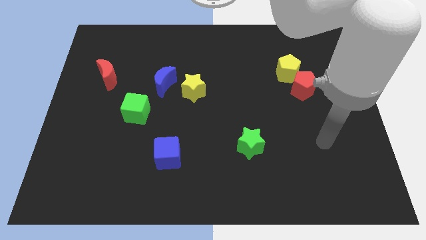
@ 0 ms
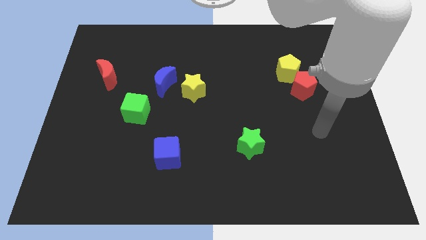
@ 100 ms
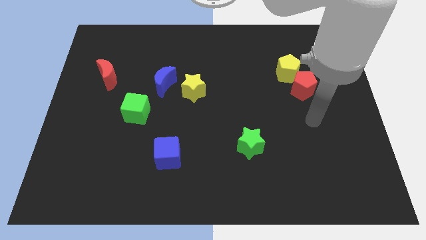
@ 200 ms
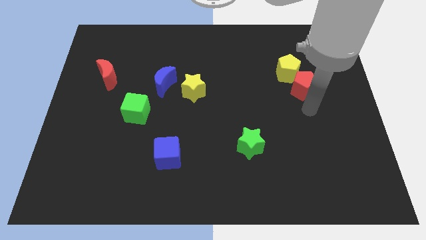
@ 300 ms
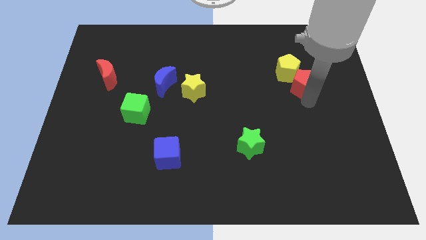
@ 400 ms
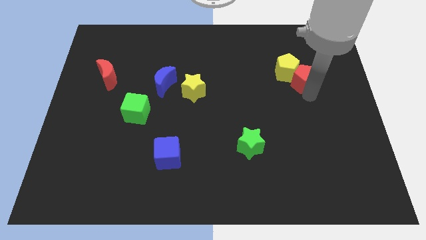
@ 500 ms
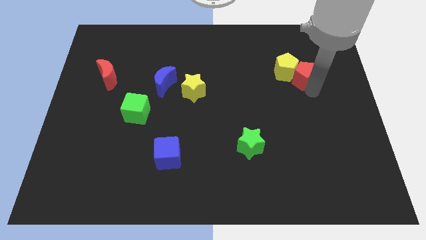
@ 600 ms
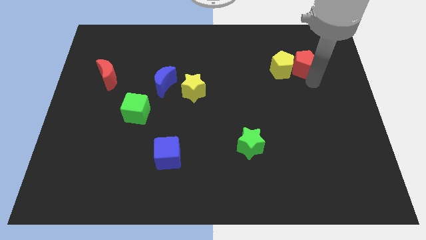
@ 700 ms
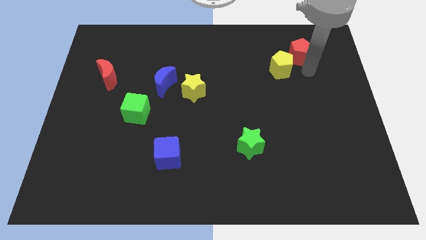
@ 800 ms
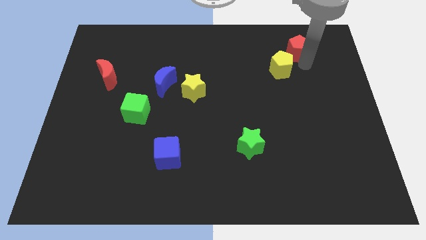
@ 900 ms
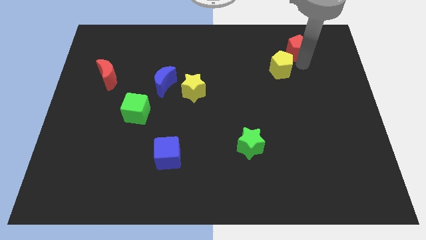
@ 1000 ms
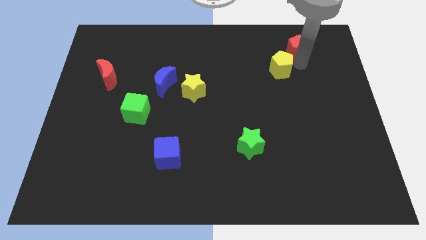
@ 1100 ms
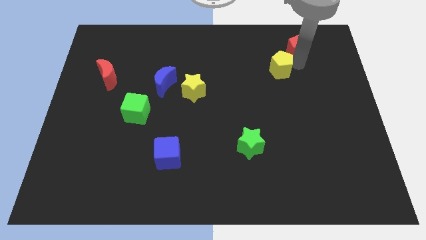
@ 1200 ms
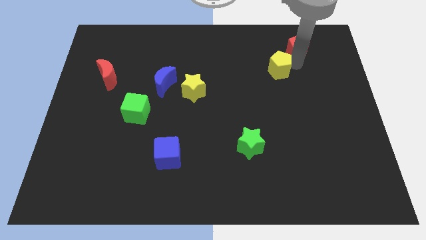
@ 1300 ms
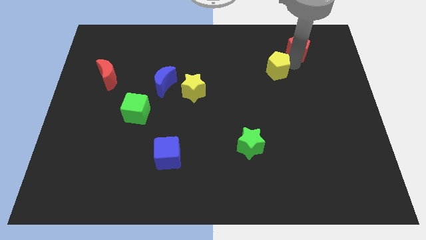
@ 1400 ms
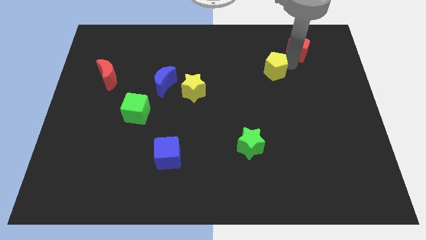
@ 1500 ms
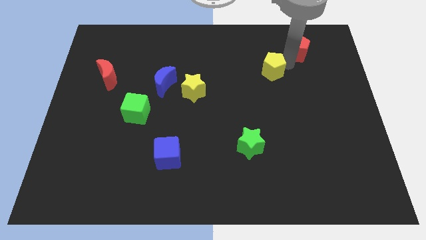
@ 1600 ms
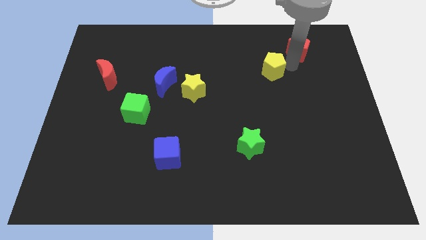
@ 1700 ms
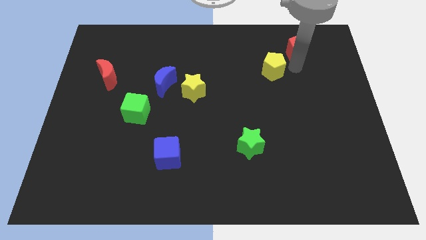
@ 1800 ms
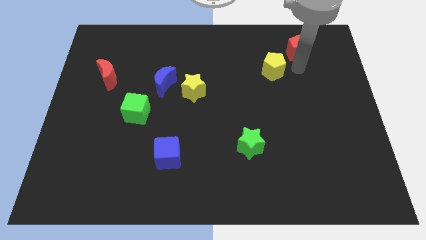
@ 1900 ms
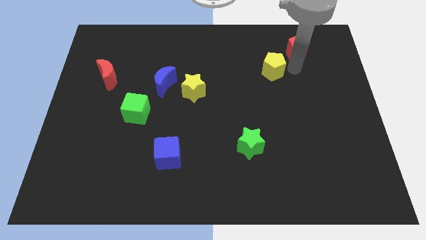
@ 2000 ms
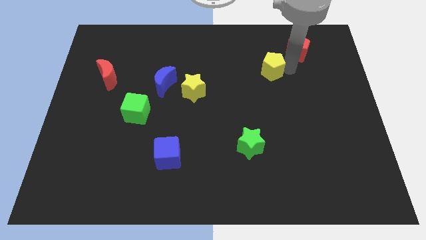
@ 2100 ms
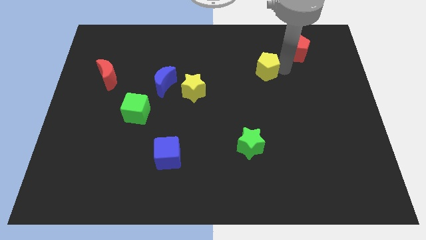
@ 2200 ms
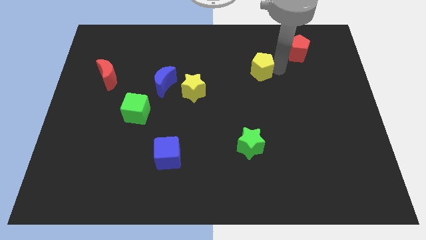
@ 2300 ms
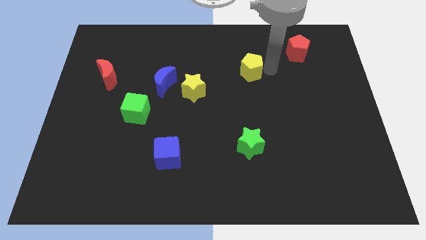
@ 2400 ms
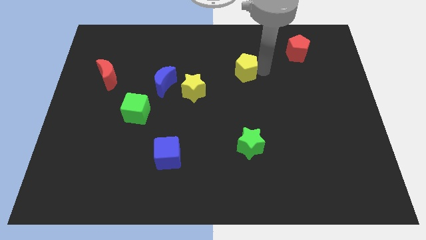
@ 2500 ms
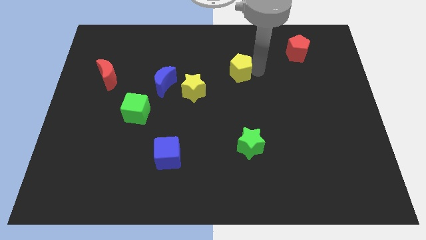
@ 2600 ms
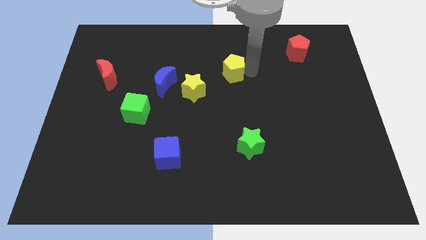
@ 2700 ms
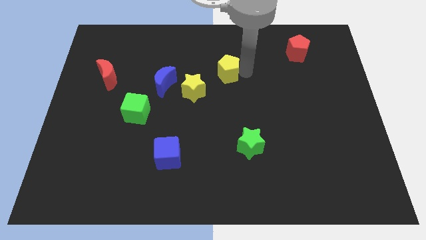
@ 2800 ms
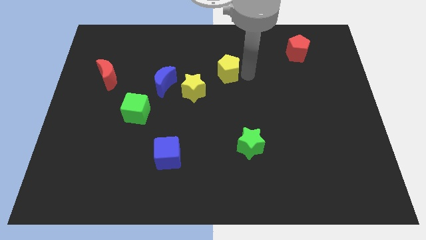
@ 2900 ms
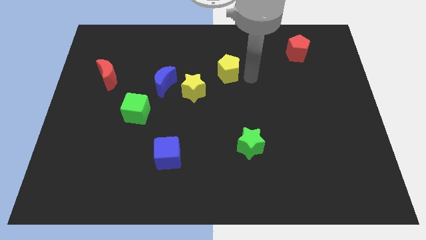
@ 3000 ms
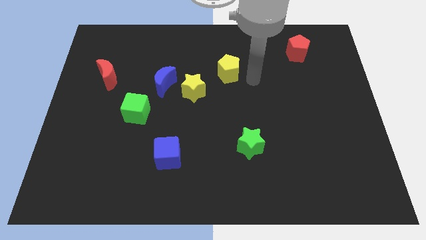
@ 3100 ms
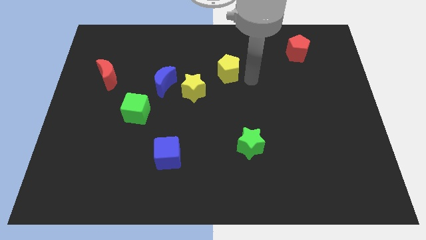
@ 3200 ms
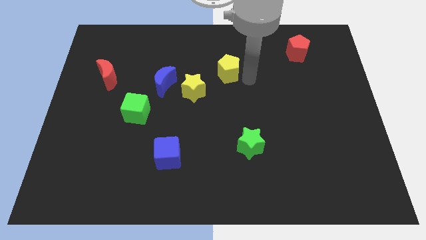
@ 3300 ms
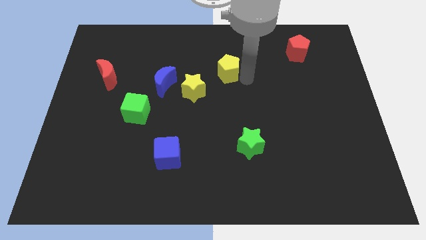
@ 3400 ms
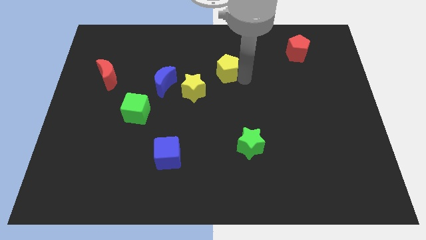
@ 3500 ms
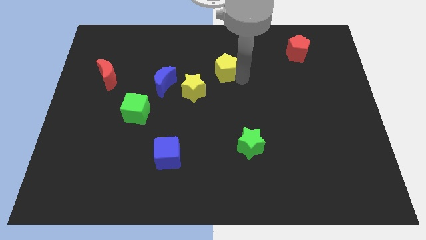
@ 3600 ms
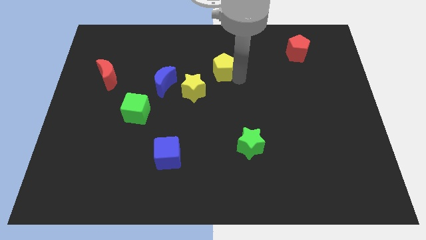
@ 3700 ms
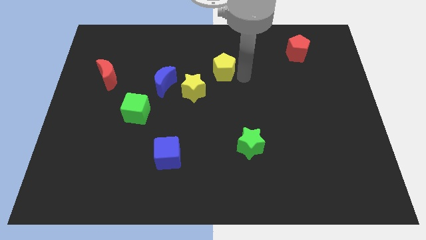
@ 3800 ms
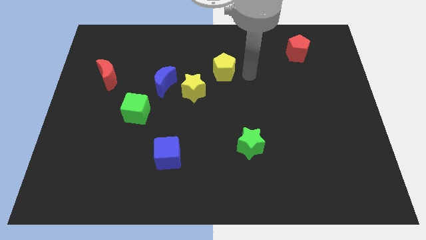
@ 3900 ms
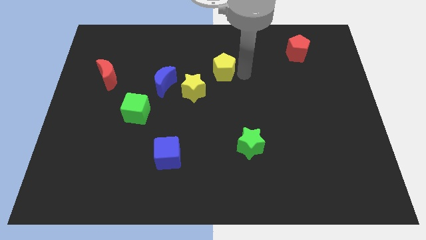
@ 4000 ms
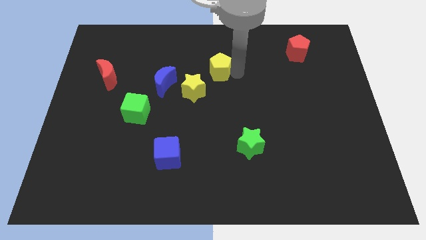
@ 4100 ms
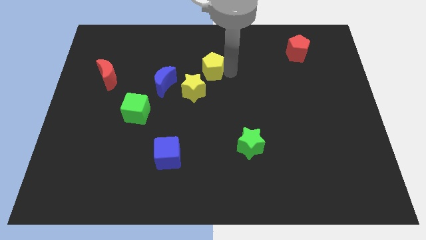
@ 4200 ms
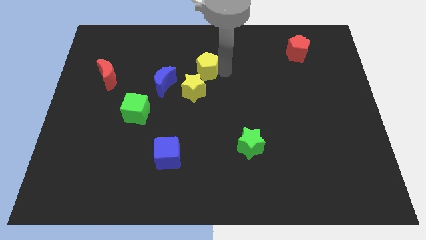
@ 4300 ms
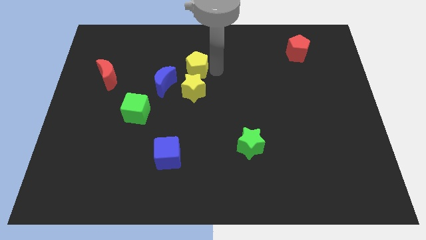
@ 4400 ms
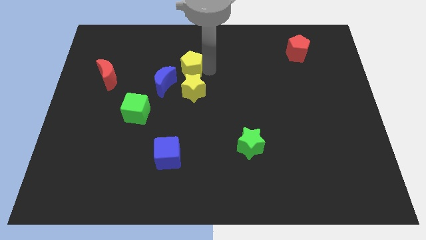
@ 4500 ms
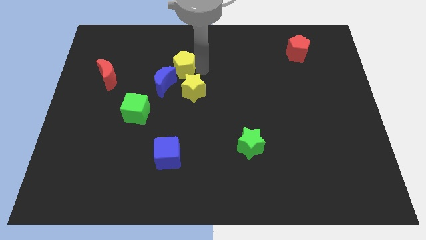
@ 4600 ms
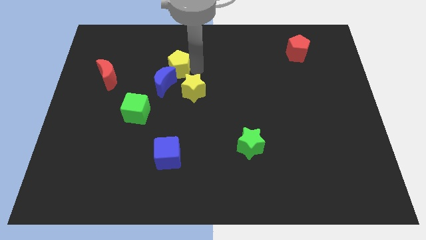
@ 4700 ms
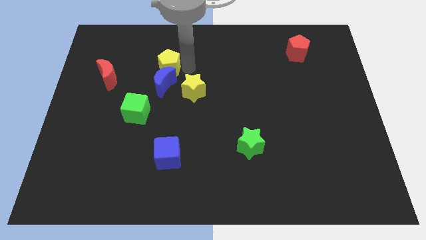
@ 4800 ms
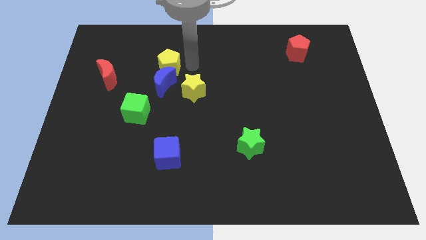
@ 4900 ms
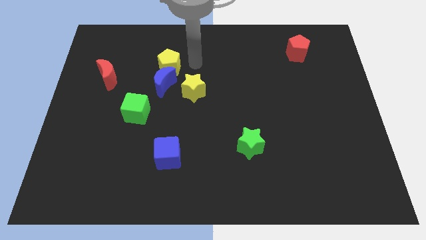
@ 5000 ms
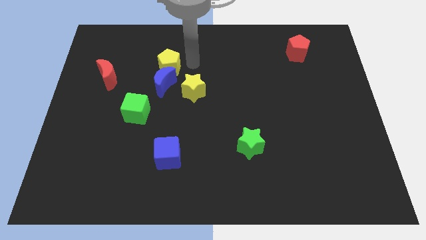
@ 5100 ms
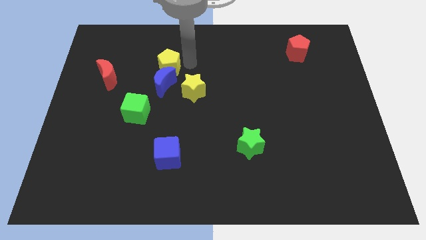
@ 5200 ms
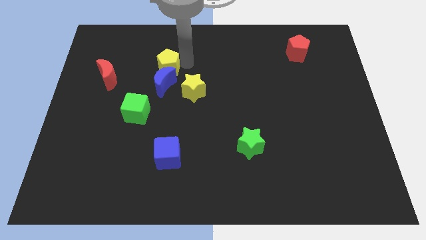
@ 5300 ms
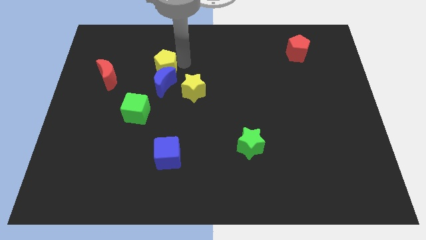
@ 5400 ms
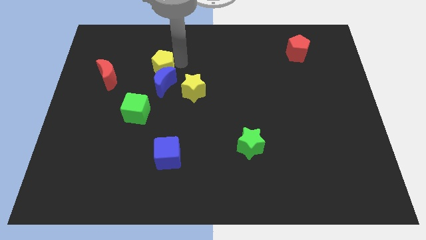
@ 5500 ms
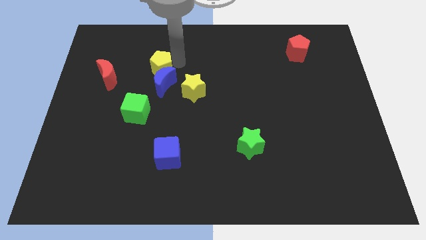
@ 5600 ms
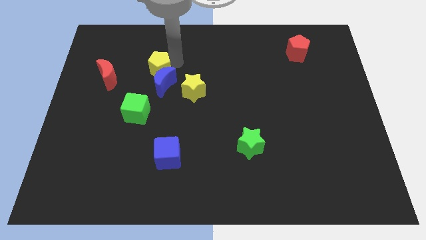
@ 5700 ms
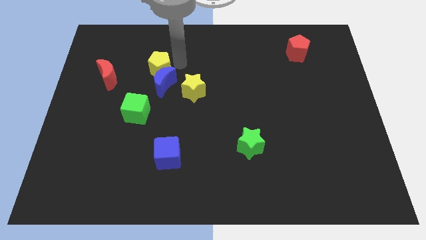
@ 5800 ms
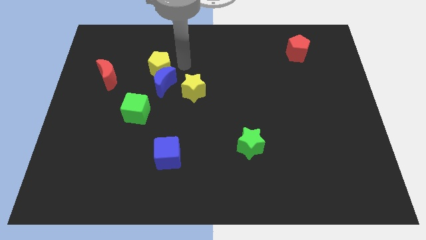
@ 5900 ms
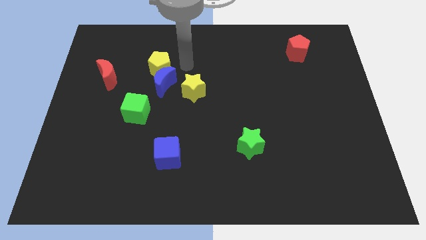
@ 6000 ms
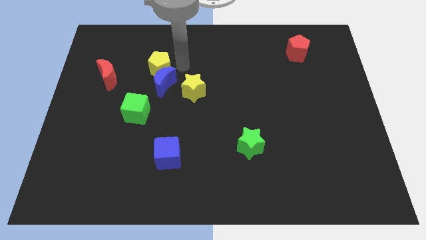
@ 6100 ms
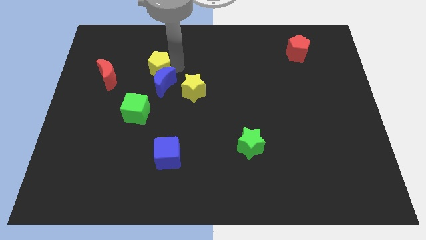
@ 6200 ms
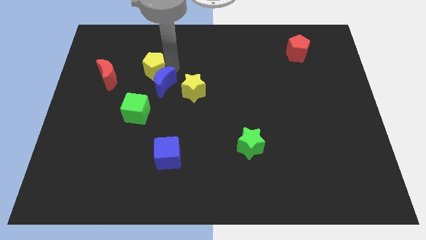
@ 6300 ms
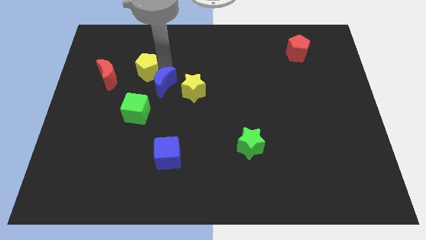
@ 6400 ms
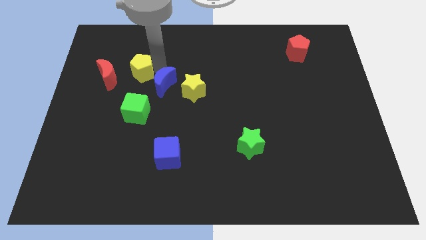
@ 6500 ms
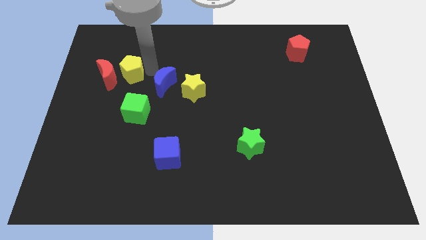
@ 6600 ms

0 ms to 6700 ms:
slide the yellow pentagon towards the red moon

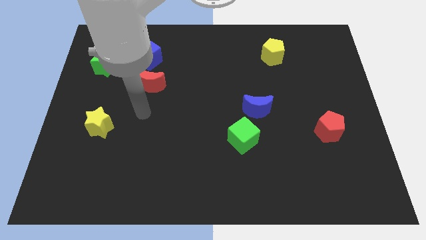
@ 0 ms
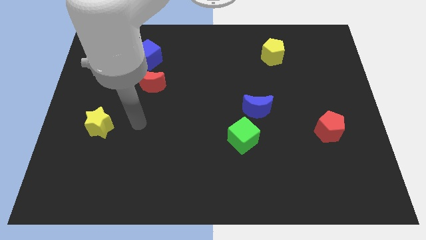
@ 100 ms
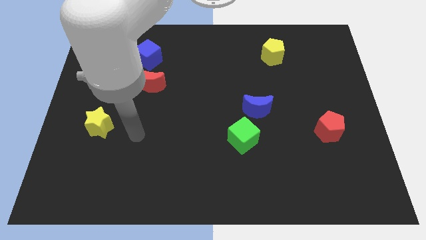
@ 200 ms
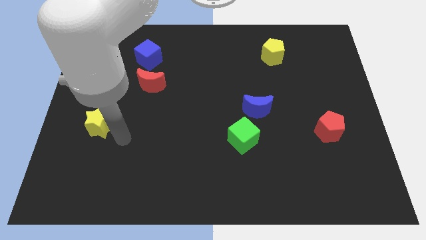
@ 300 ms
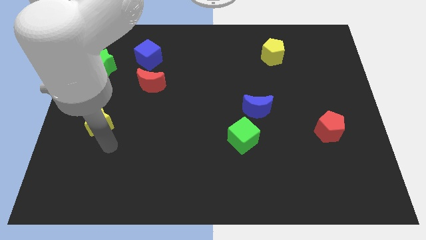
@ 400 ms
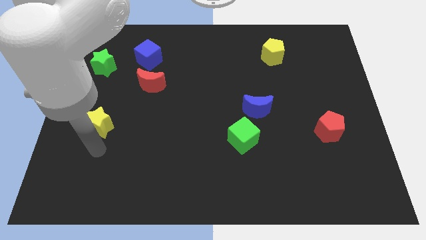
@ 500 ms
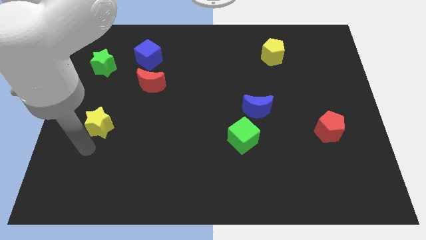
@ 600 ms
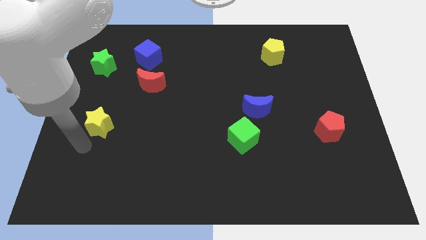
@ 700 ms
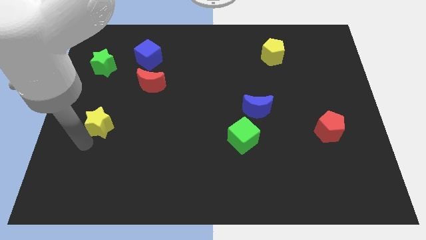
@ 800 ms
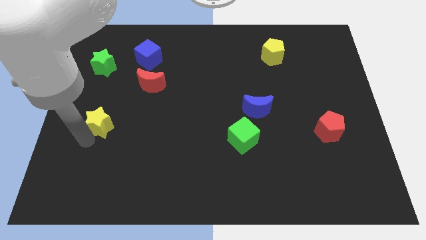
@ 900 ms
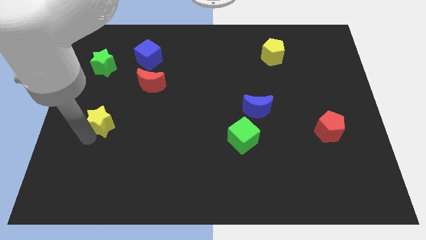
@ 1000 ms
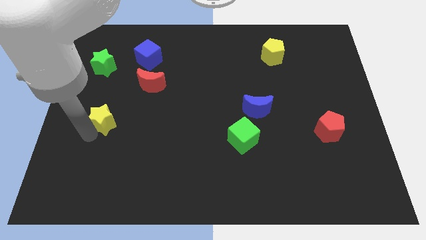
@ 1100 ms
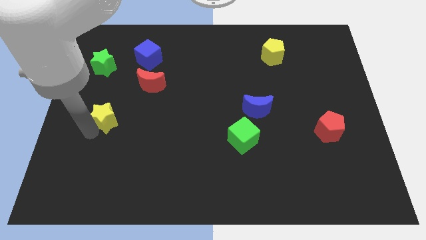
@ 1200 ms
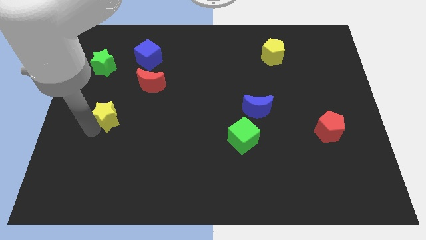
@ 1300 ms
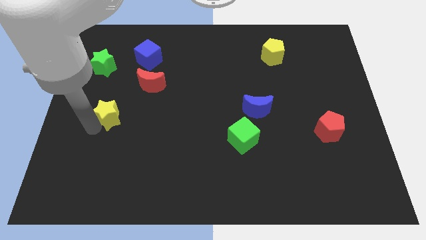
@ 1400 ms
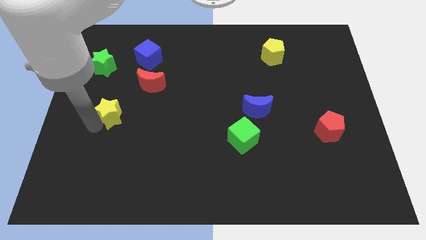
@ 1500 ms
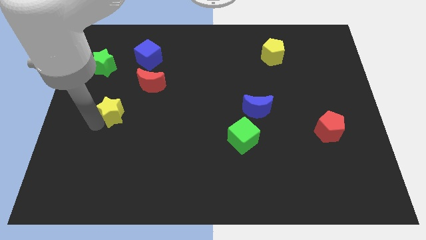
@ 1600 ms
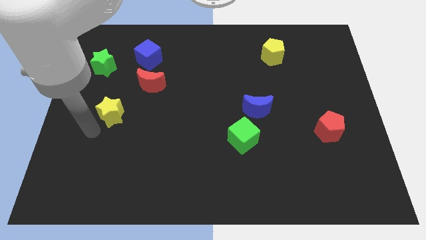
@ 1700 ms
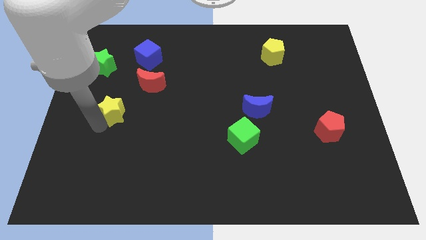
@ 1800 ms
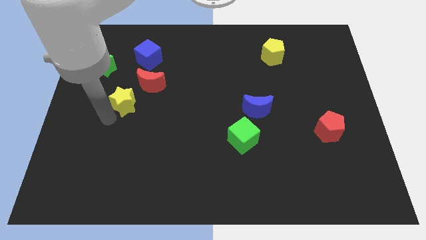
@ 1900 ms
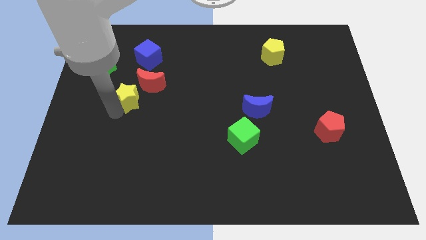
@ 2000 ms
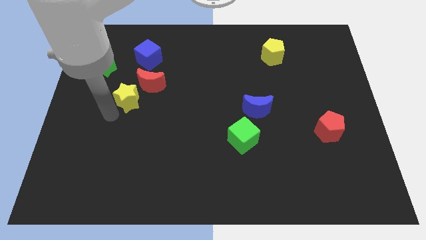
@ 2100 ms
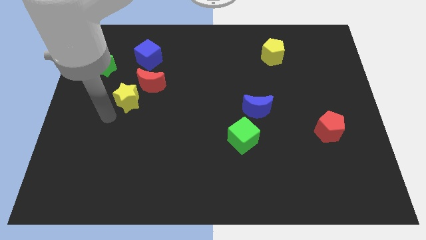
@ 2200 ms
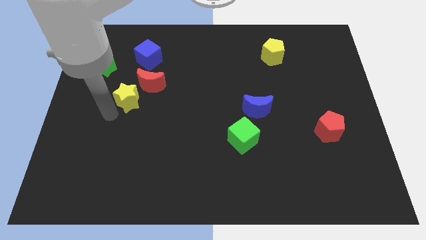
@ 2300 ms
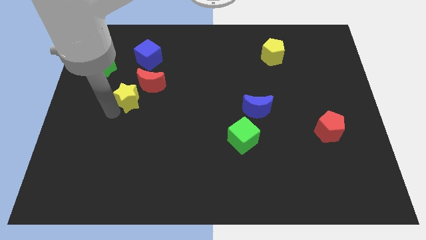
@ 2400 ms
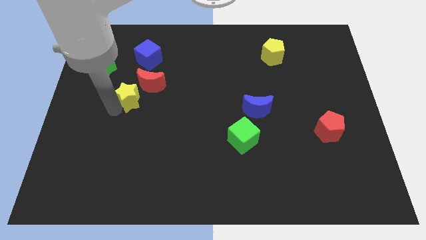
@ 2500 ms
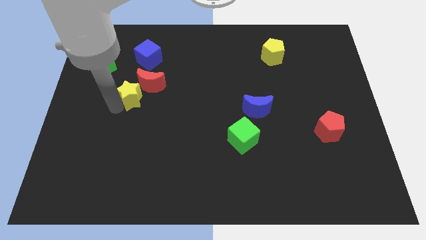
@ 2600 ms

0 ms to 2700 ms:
move the yellow star close to the red moon
